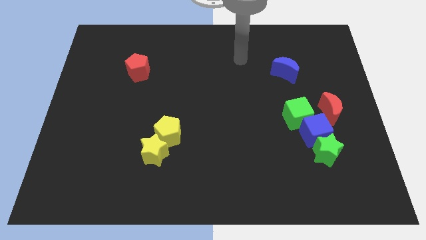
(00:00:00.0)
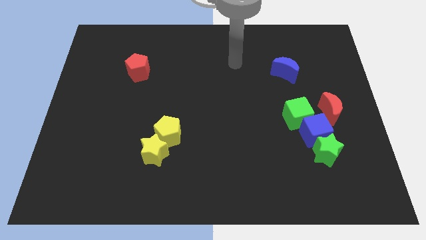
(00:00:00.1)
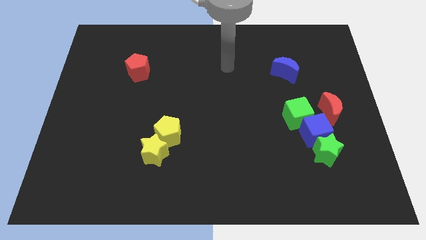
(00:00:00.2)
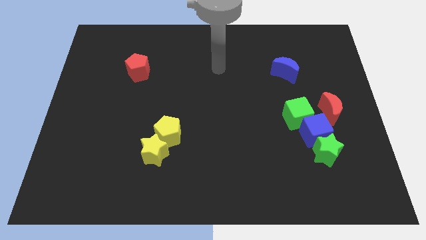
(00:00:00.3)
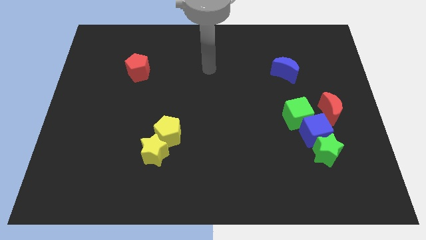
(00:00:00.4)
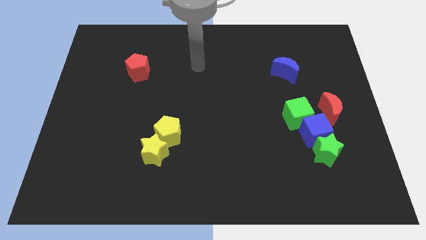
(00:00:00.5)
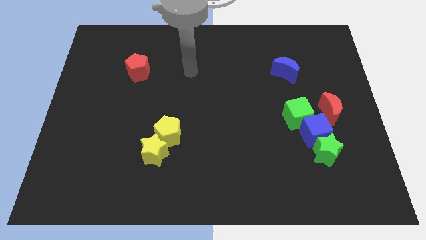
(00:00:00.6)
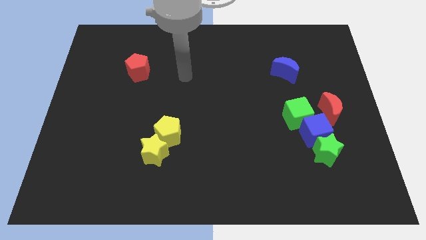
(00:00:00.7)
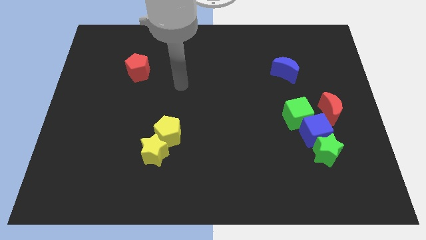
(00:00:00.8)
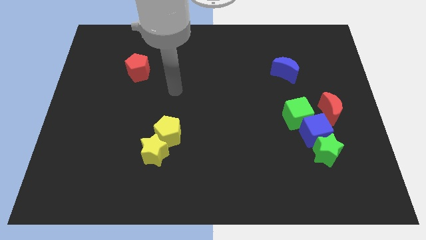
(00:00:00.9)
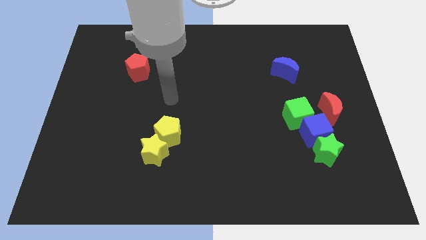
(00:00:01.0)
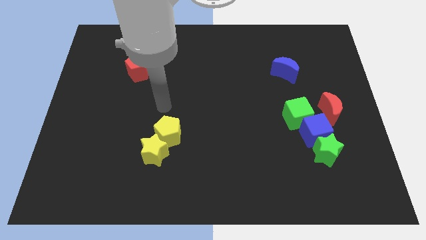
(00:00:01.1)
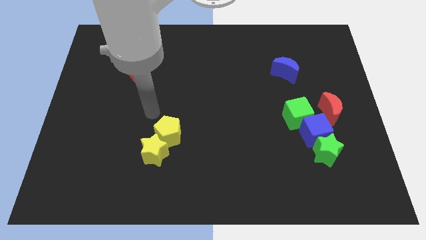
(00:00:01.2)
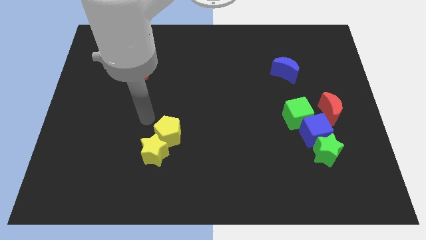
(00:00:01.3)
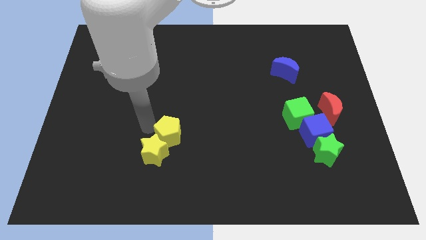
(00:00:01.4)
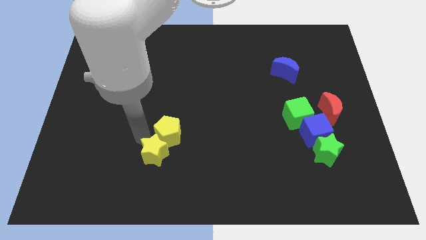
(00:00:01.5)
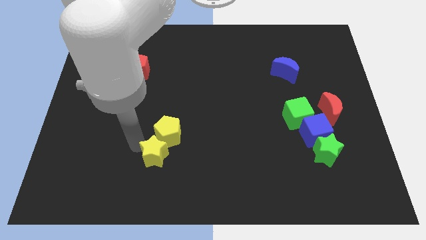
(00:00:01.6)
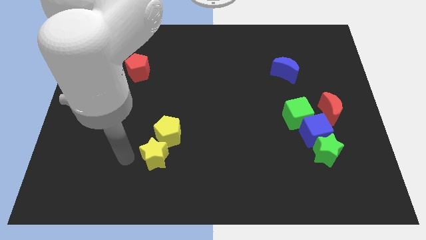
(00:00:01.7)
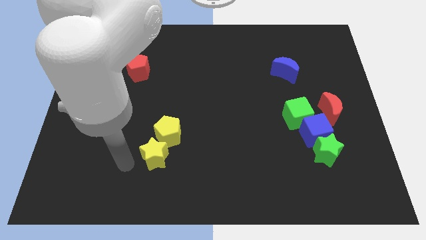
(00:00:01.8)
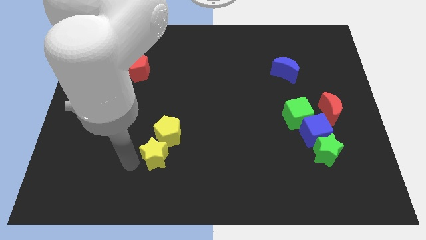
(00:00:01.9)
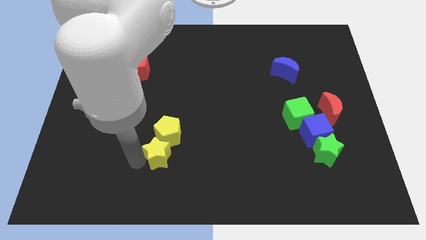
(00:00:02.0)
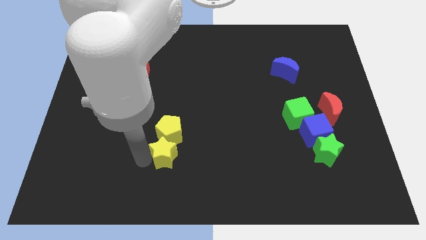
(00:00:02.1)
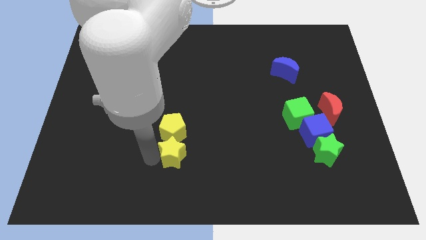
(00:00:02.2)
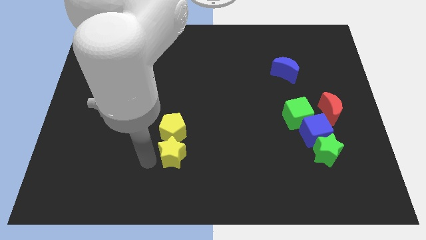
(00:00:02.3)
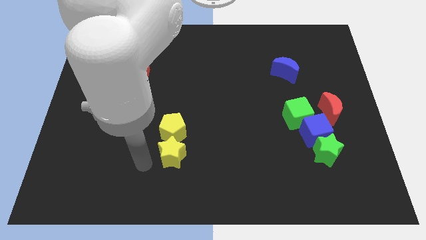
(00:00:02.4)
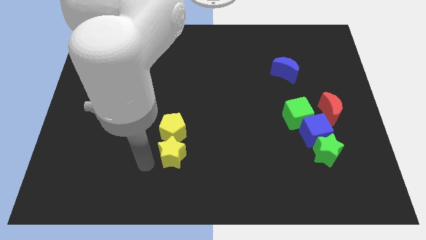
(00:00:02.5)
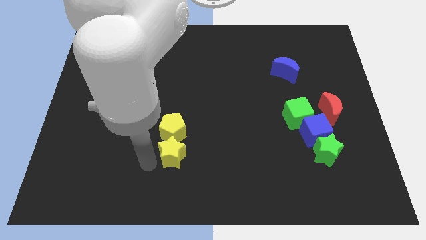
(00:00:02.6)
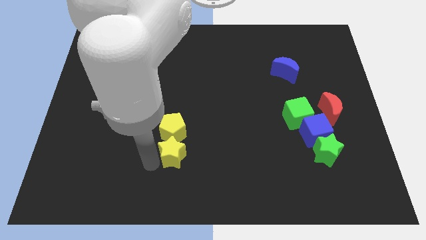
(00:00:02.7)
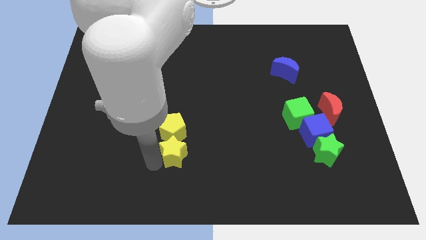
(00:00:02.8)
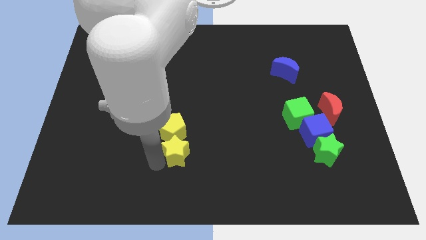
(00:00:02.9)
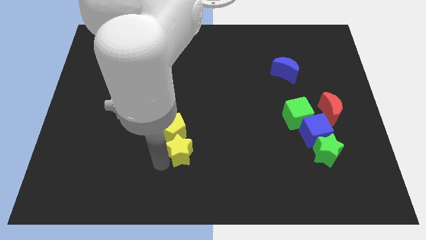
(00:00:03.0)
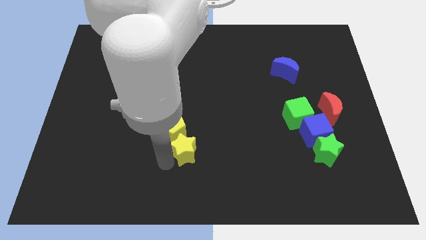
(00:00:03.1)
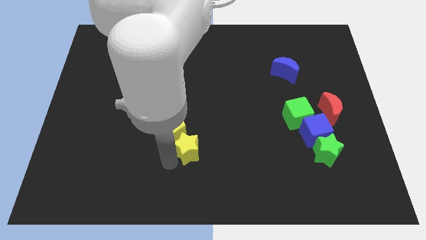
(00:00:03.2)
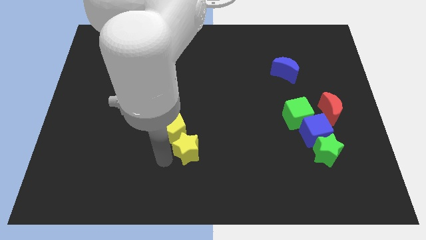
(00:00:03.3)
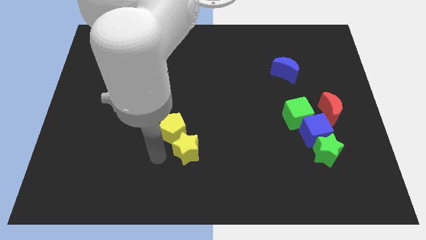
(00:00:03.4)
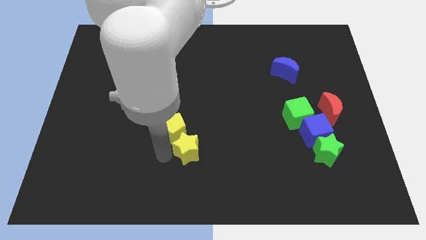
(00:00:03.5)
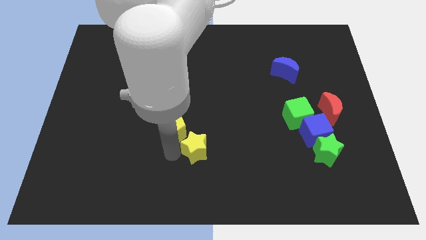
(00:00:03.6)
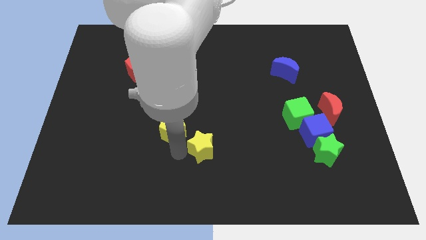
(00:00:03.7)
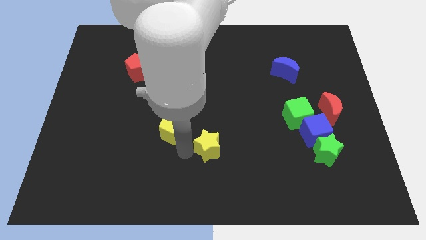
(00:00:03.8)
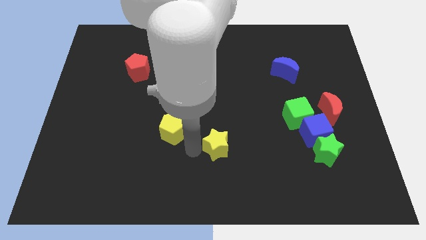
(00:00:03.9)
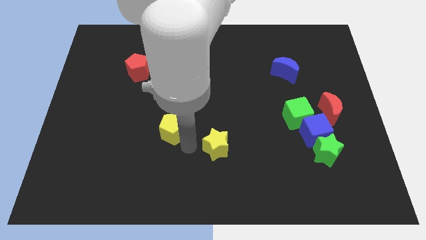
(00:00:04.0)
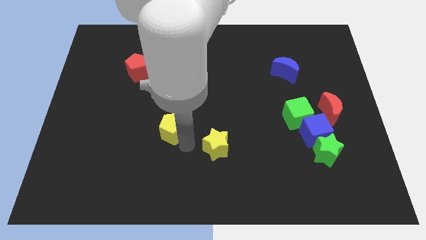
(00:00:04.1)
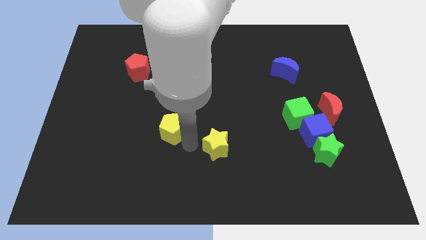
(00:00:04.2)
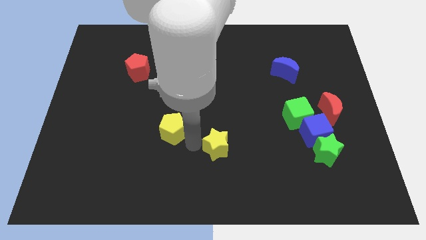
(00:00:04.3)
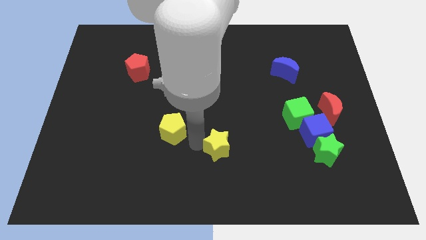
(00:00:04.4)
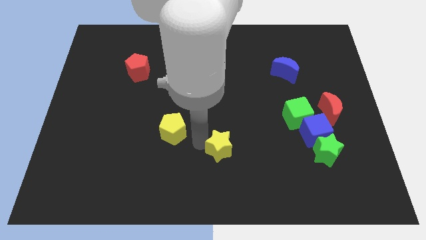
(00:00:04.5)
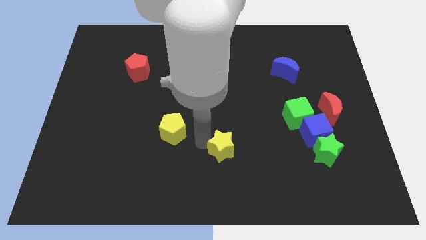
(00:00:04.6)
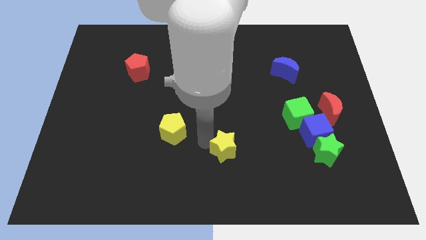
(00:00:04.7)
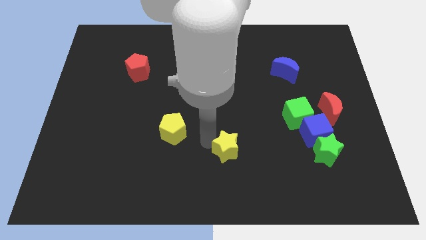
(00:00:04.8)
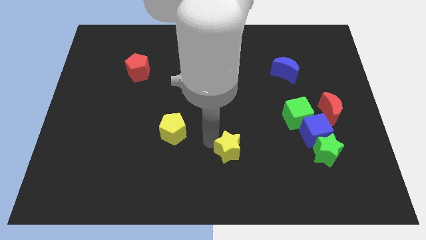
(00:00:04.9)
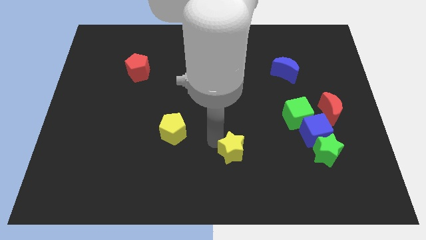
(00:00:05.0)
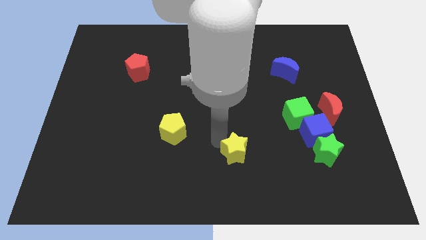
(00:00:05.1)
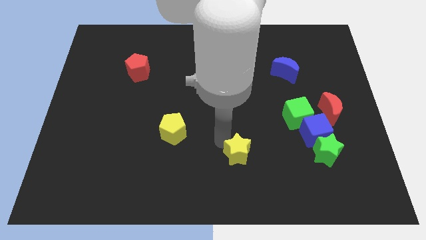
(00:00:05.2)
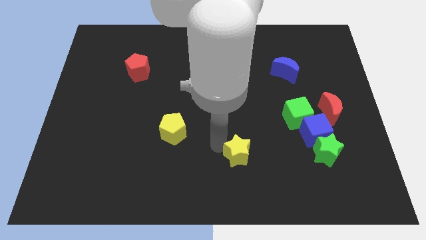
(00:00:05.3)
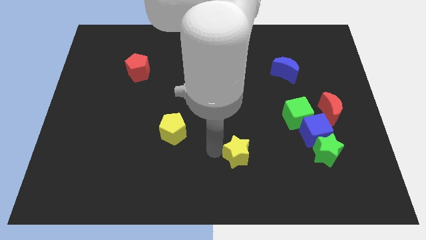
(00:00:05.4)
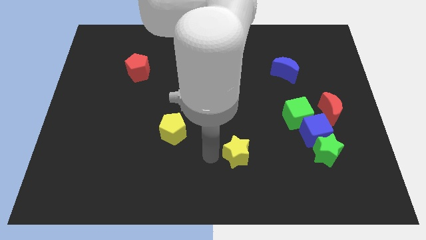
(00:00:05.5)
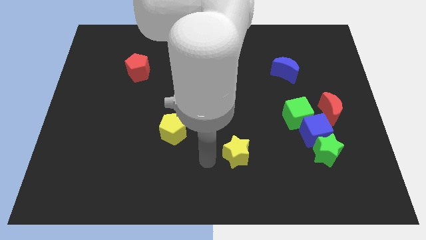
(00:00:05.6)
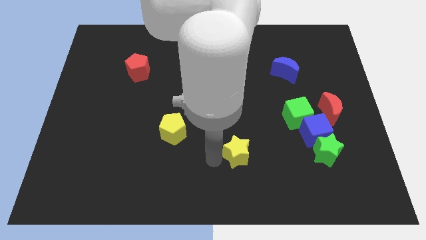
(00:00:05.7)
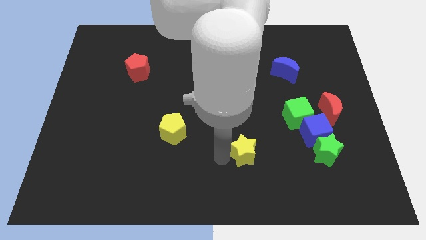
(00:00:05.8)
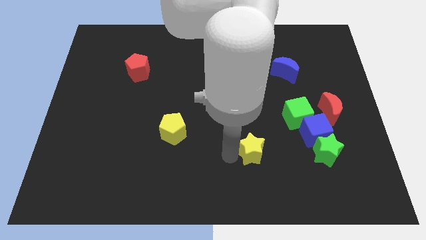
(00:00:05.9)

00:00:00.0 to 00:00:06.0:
push the yellow star right

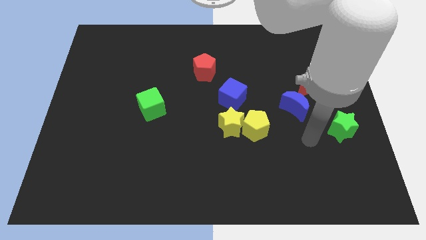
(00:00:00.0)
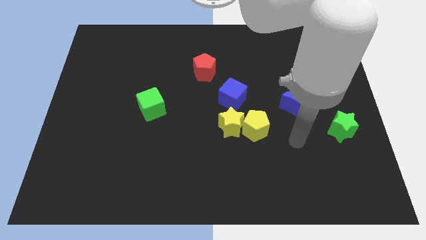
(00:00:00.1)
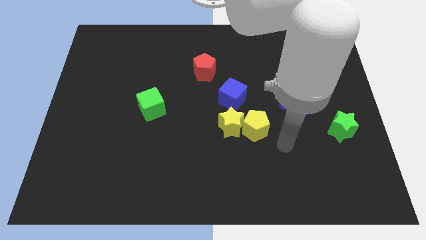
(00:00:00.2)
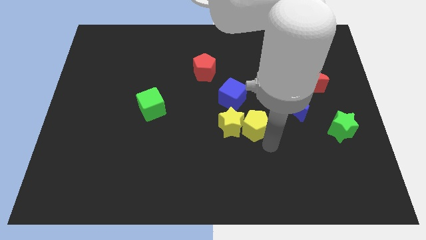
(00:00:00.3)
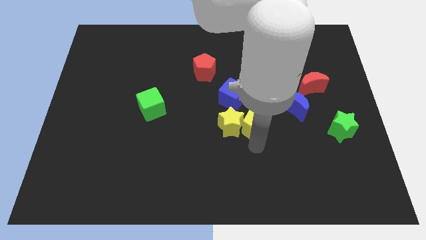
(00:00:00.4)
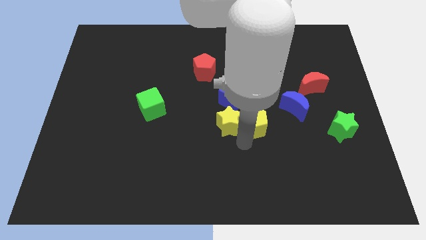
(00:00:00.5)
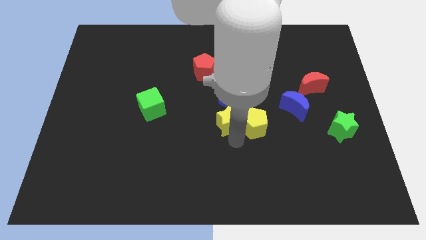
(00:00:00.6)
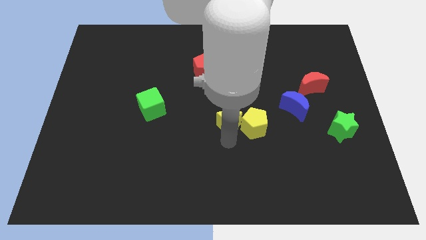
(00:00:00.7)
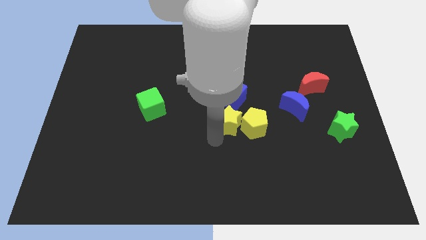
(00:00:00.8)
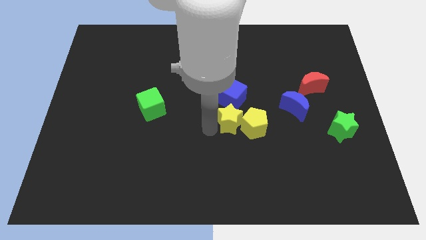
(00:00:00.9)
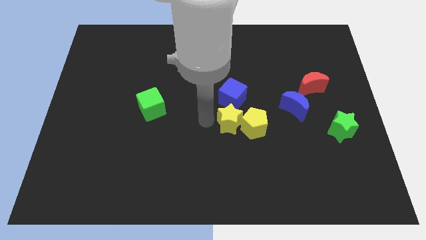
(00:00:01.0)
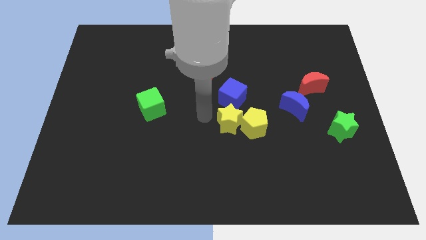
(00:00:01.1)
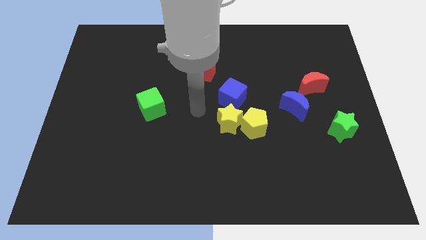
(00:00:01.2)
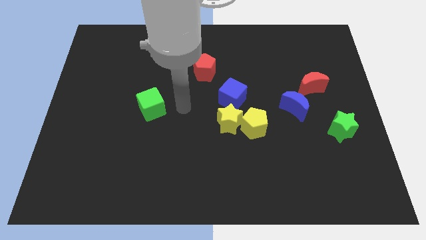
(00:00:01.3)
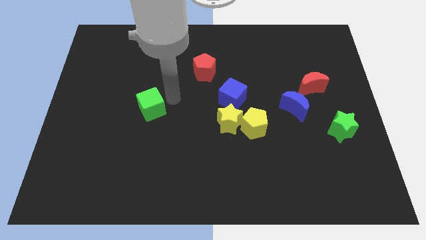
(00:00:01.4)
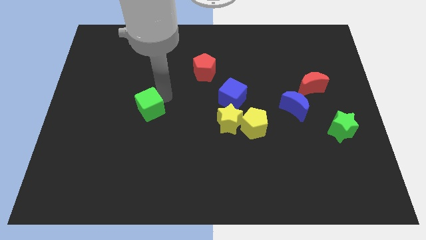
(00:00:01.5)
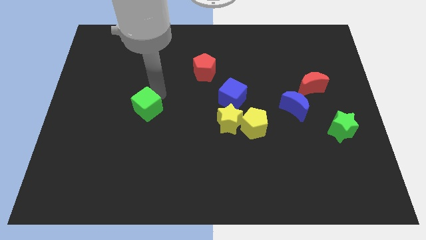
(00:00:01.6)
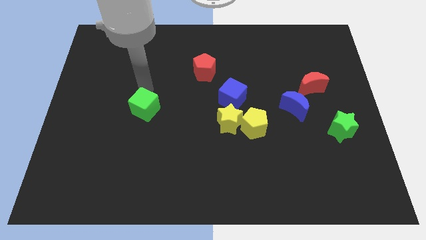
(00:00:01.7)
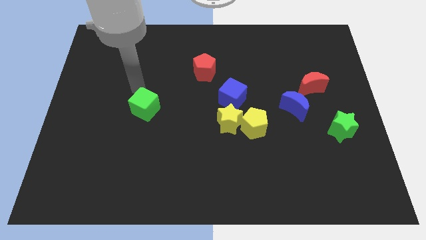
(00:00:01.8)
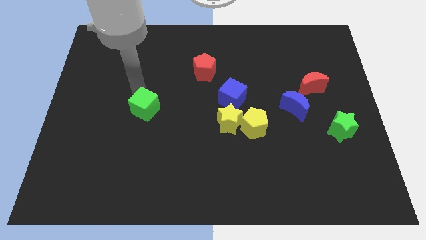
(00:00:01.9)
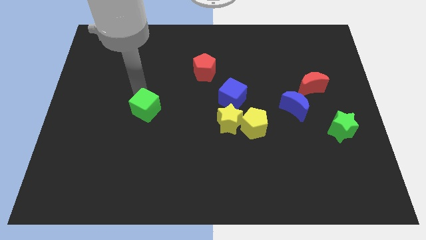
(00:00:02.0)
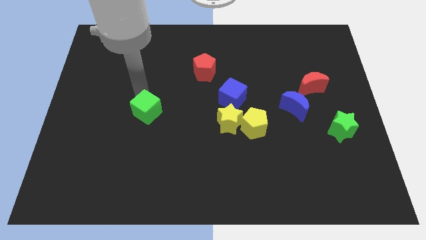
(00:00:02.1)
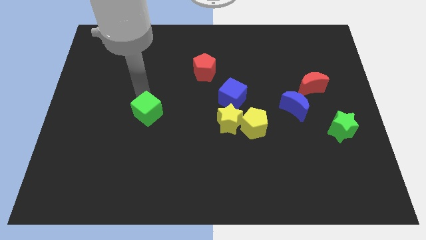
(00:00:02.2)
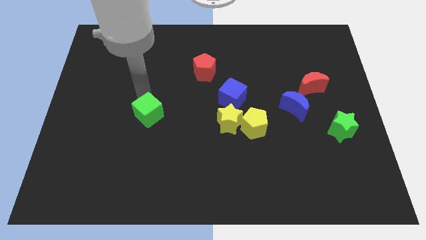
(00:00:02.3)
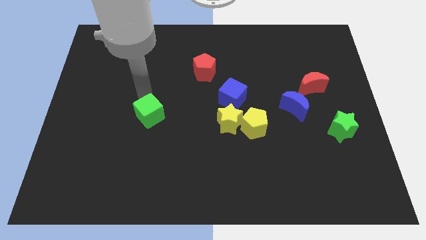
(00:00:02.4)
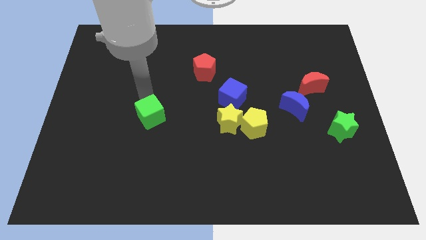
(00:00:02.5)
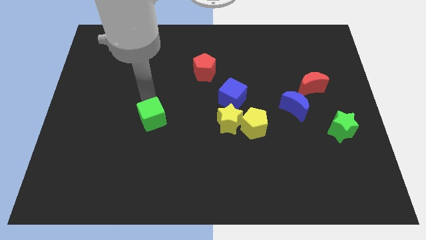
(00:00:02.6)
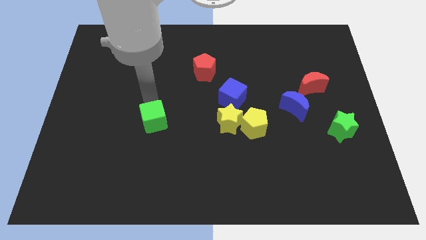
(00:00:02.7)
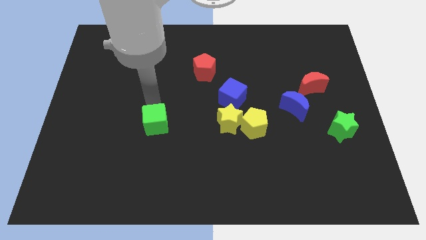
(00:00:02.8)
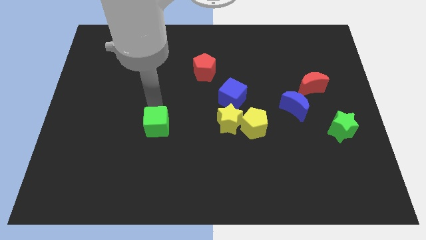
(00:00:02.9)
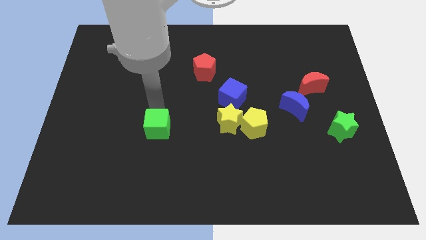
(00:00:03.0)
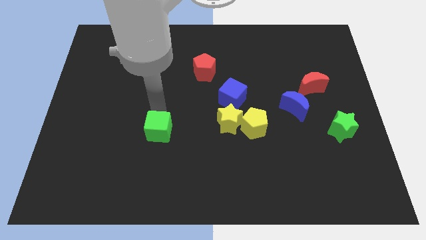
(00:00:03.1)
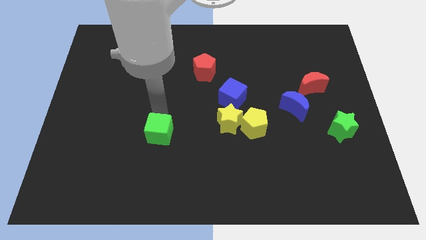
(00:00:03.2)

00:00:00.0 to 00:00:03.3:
slide the green cube downwards slightly
